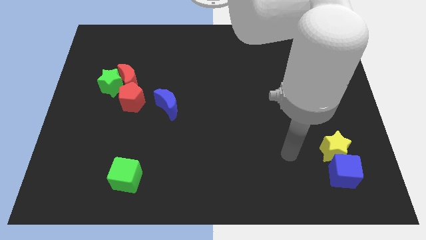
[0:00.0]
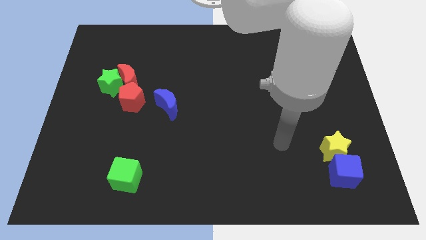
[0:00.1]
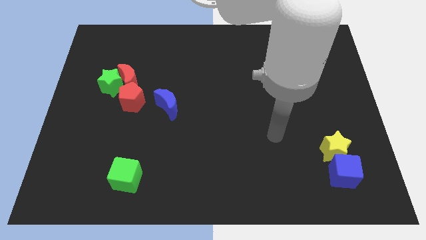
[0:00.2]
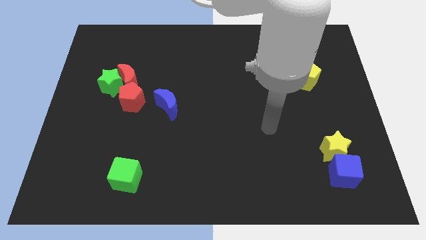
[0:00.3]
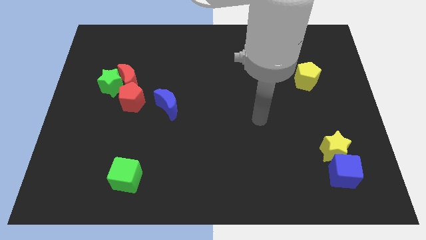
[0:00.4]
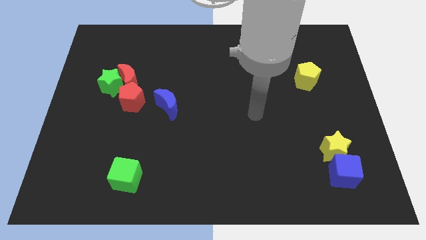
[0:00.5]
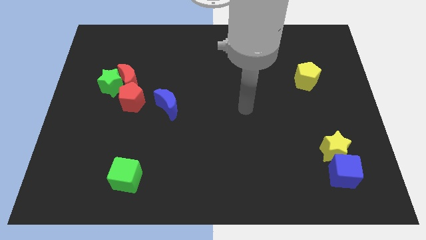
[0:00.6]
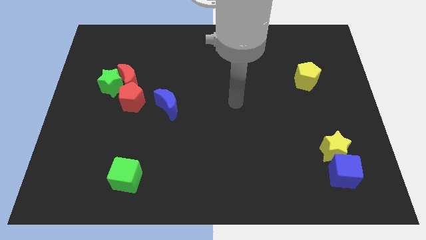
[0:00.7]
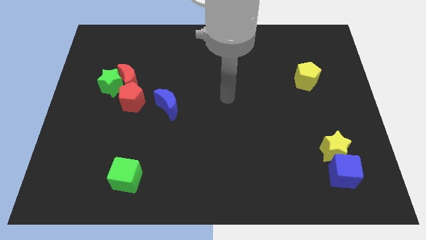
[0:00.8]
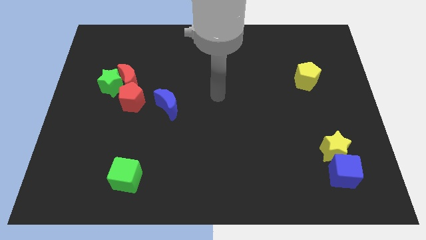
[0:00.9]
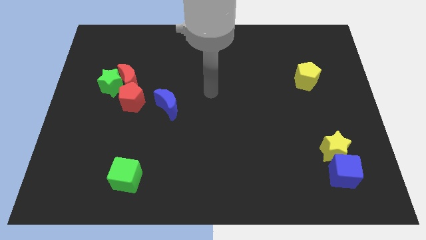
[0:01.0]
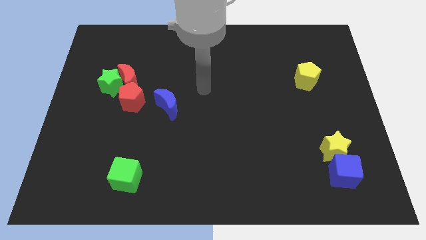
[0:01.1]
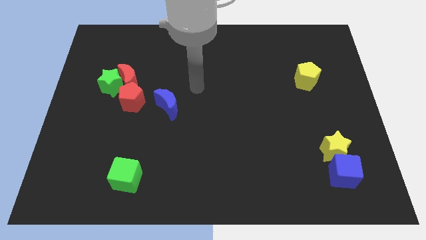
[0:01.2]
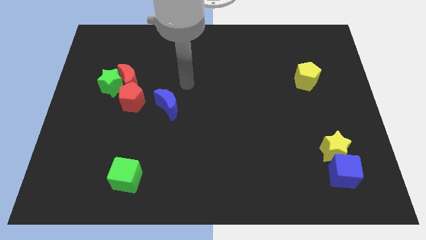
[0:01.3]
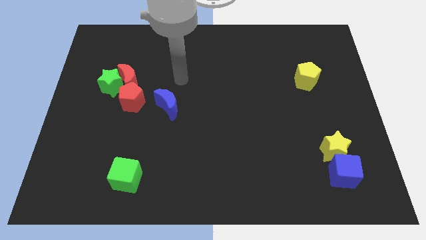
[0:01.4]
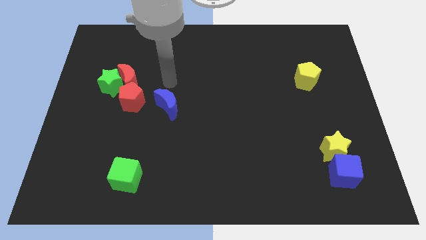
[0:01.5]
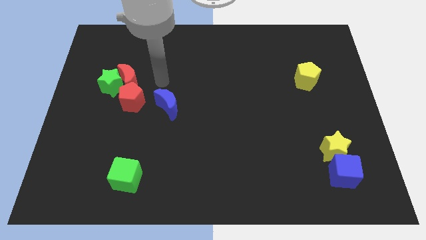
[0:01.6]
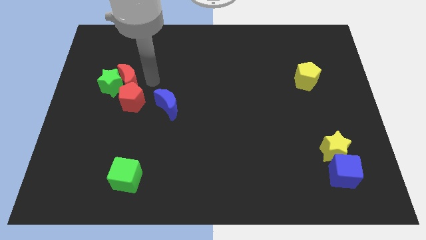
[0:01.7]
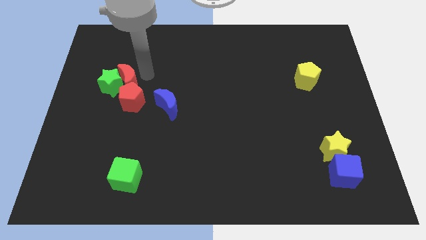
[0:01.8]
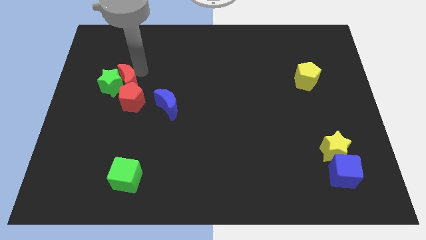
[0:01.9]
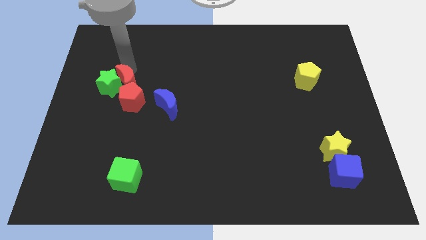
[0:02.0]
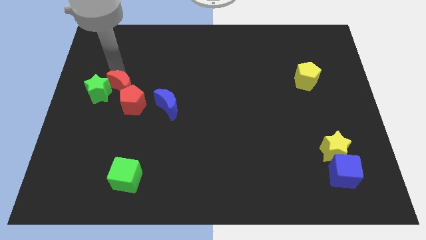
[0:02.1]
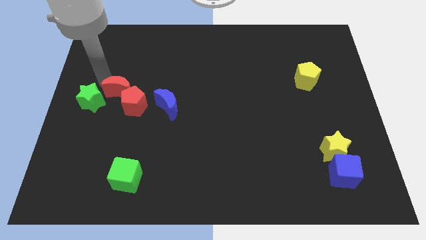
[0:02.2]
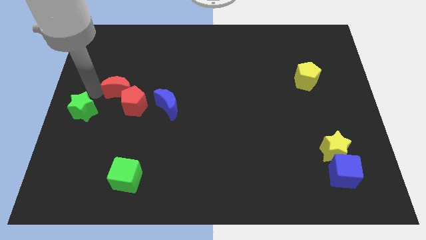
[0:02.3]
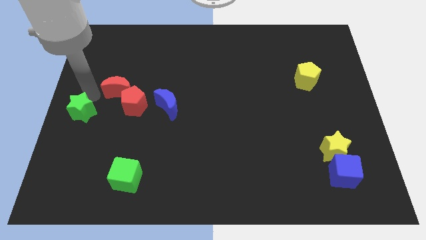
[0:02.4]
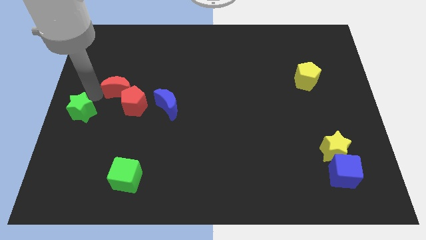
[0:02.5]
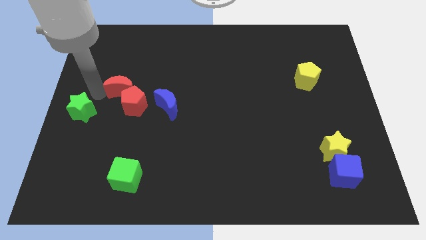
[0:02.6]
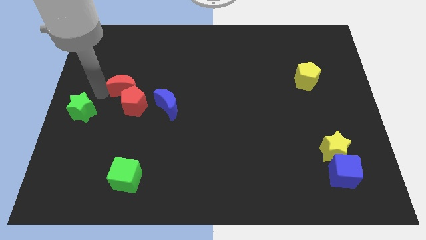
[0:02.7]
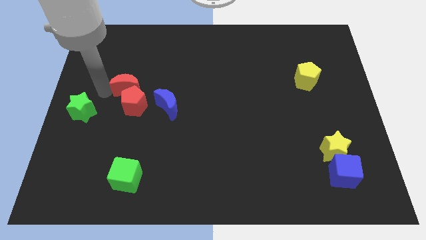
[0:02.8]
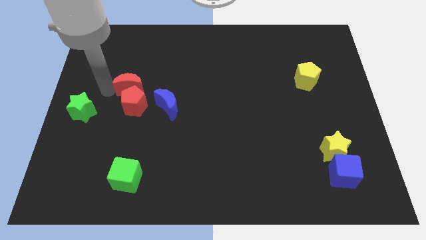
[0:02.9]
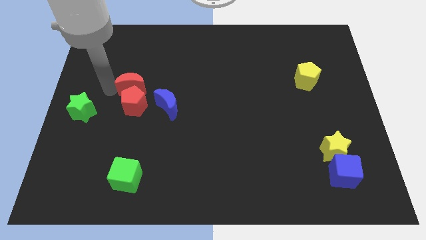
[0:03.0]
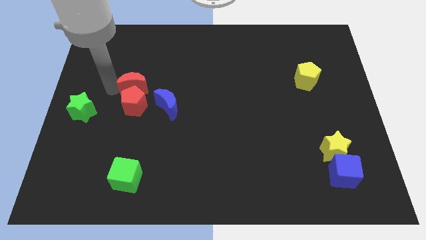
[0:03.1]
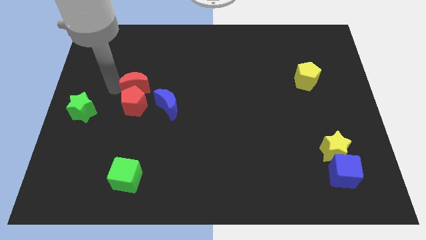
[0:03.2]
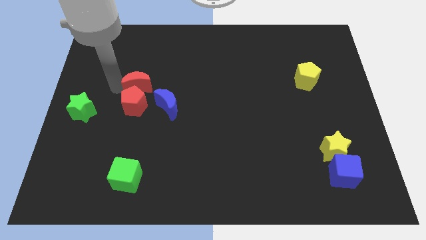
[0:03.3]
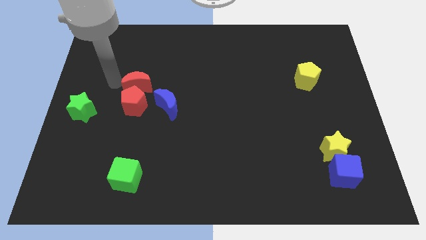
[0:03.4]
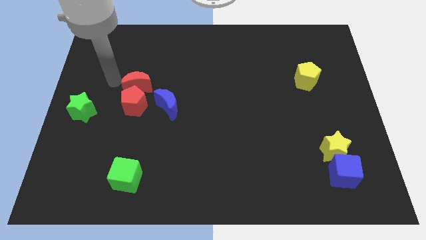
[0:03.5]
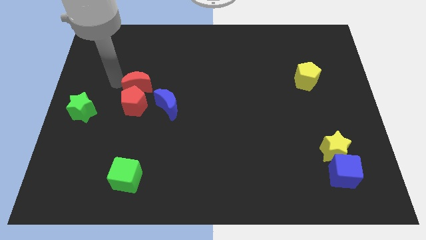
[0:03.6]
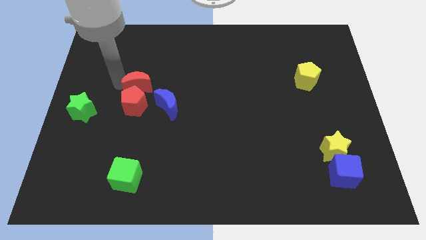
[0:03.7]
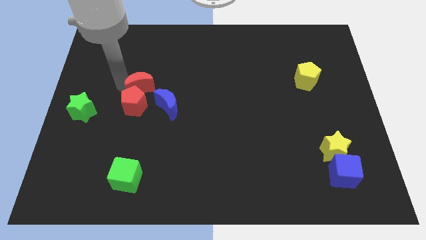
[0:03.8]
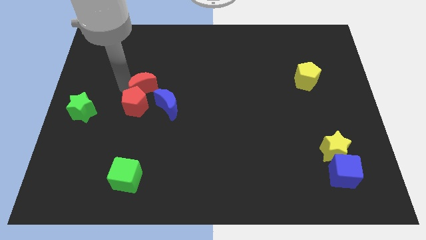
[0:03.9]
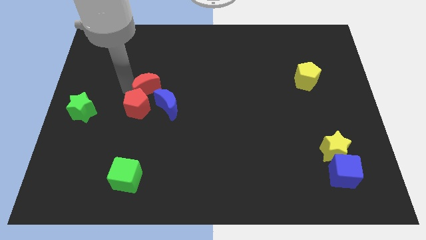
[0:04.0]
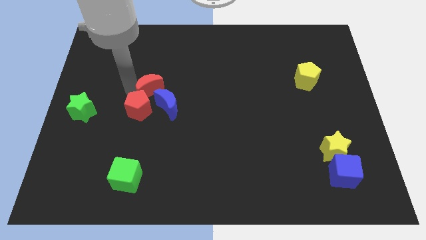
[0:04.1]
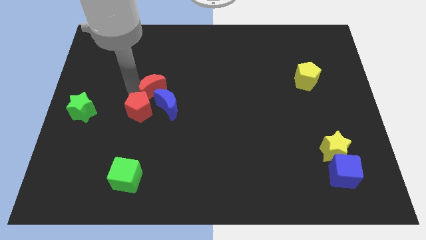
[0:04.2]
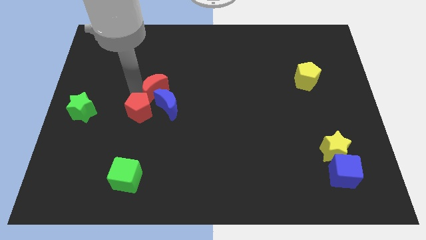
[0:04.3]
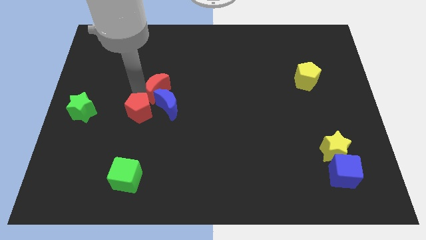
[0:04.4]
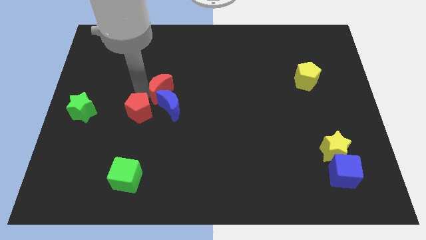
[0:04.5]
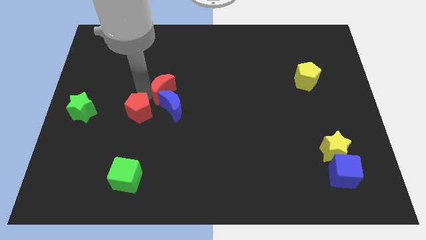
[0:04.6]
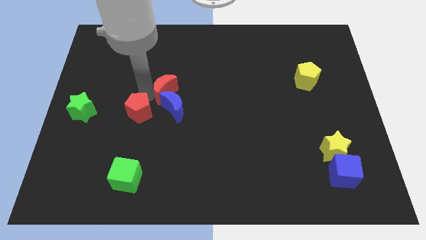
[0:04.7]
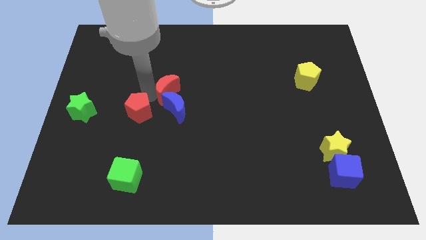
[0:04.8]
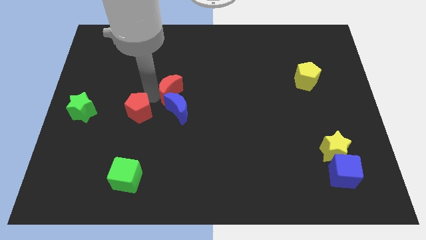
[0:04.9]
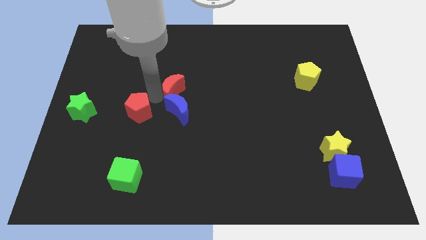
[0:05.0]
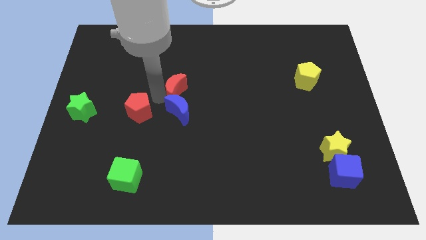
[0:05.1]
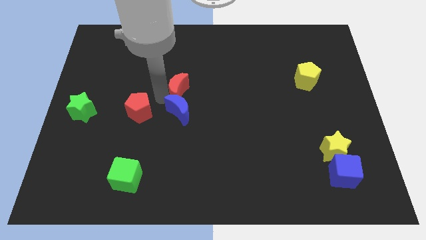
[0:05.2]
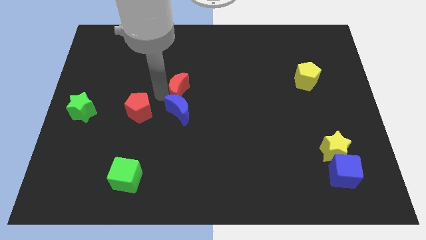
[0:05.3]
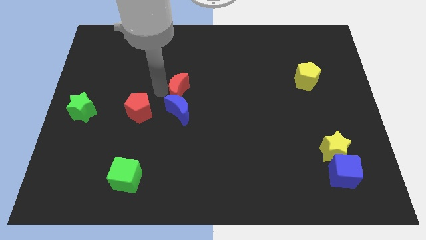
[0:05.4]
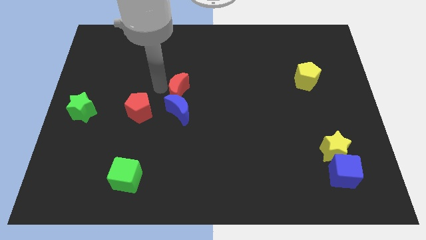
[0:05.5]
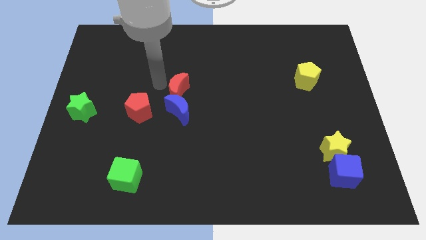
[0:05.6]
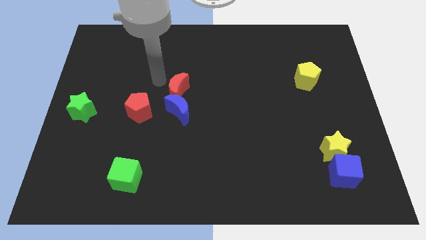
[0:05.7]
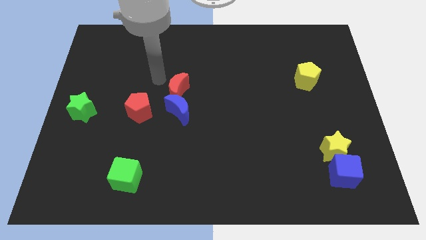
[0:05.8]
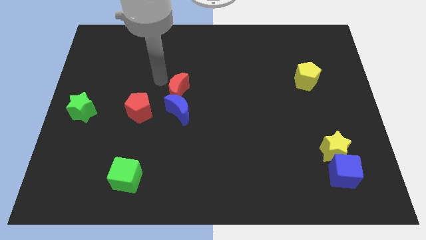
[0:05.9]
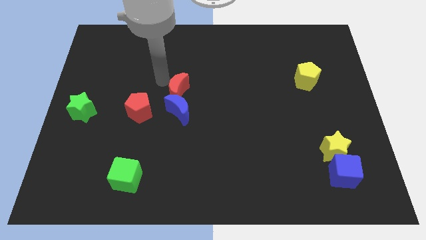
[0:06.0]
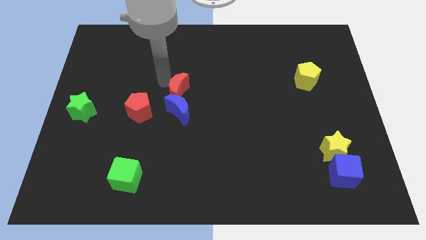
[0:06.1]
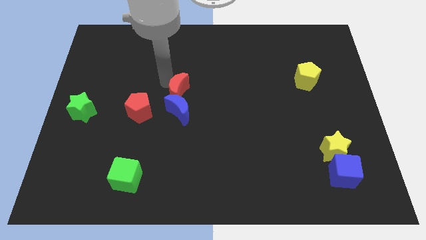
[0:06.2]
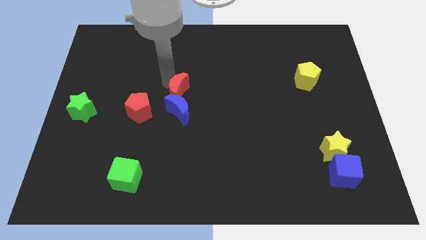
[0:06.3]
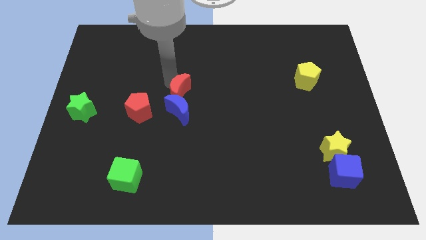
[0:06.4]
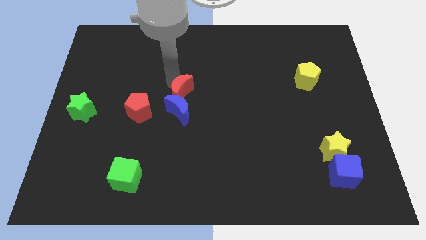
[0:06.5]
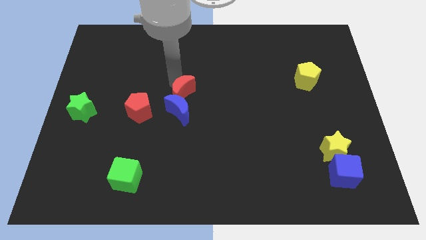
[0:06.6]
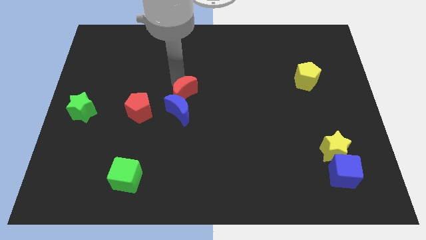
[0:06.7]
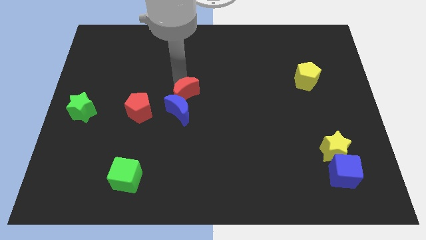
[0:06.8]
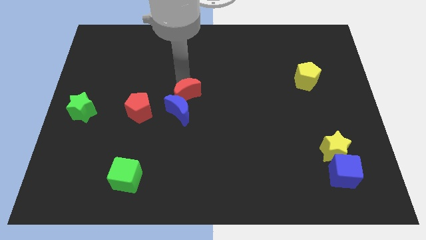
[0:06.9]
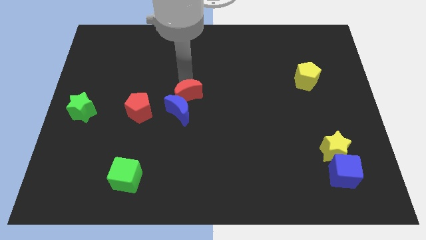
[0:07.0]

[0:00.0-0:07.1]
move the red moon to the right of the red pentagon
